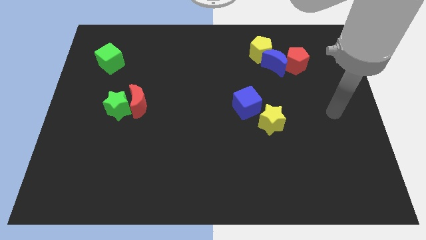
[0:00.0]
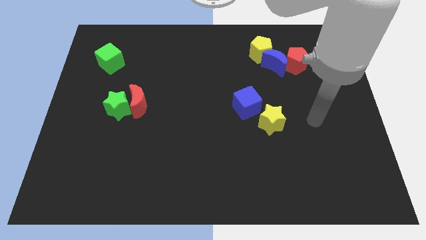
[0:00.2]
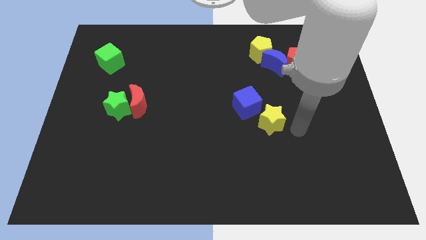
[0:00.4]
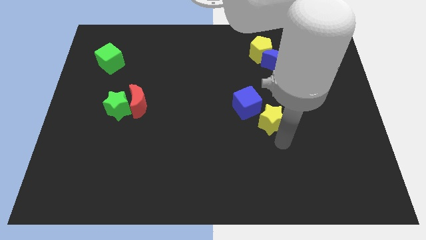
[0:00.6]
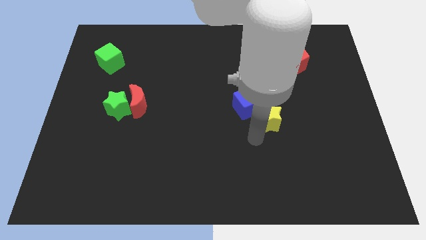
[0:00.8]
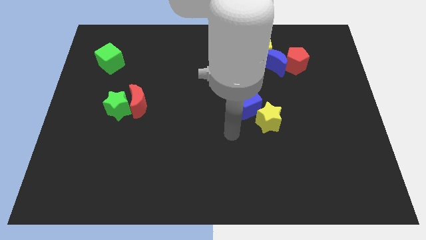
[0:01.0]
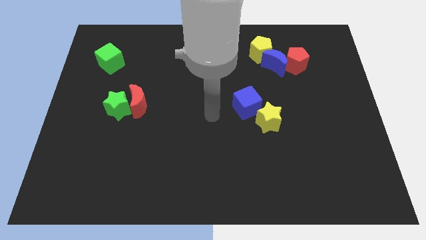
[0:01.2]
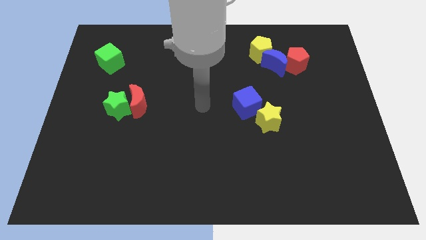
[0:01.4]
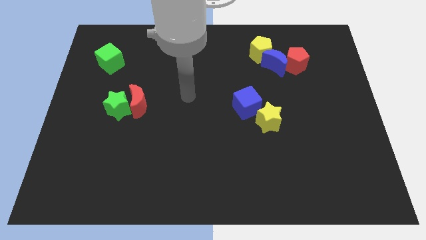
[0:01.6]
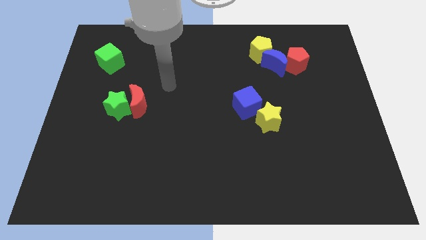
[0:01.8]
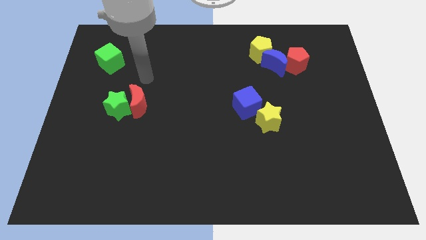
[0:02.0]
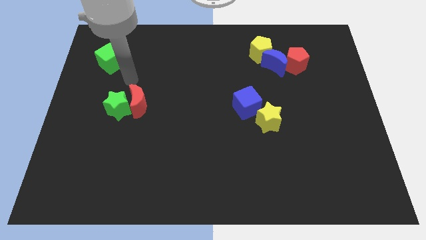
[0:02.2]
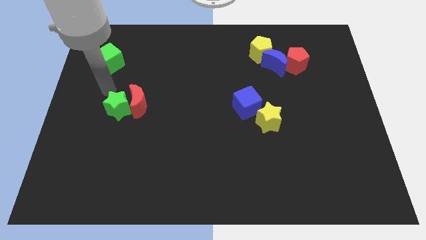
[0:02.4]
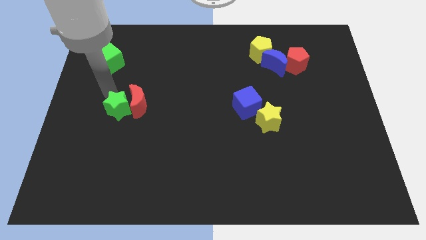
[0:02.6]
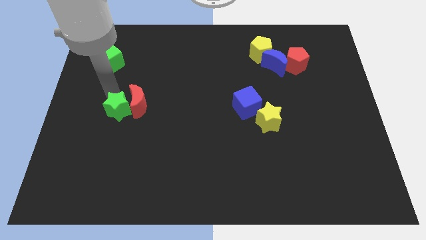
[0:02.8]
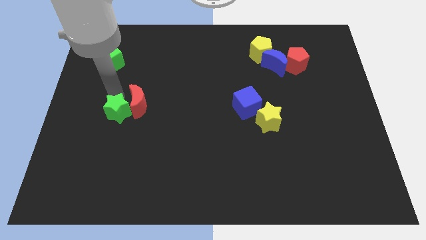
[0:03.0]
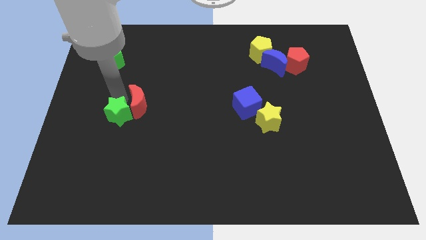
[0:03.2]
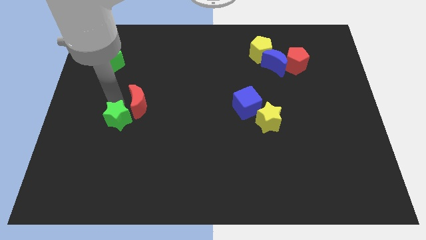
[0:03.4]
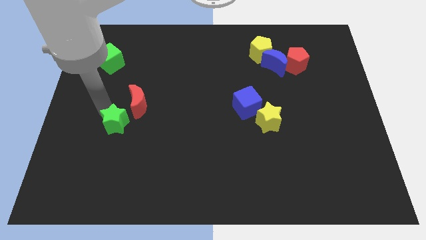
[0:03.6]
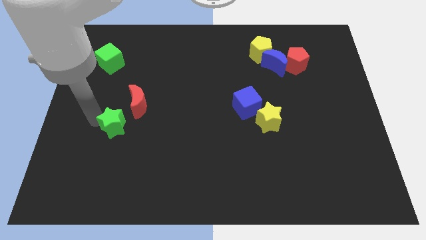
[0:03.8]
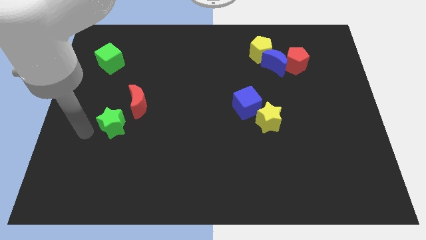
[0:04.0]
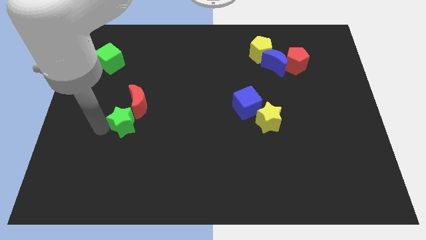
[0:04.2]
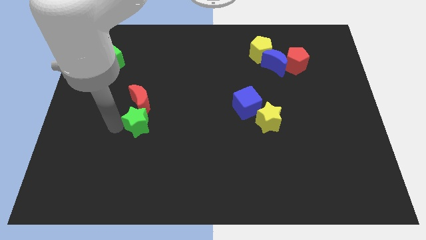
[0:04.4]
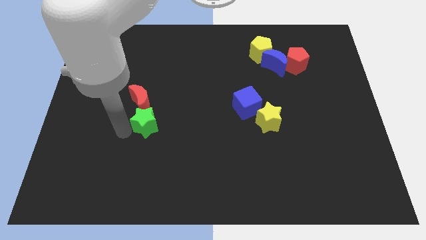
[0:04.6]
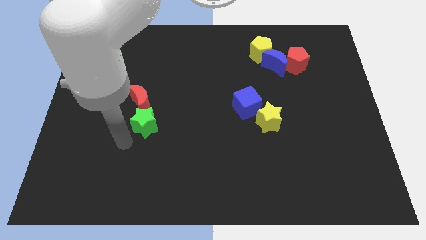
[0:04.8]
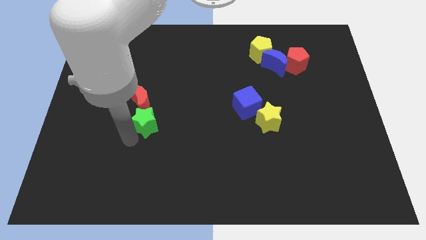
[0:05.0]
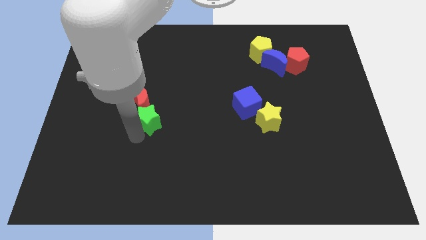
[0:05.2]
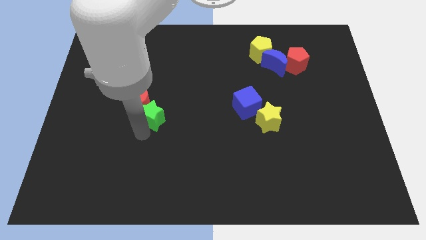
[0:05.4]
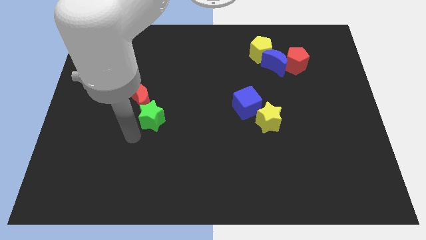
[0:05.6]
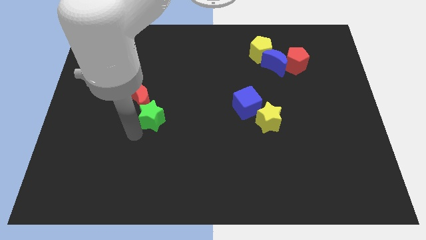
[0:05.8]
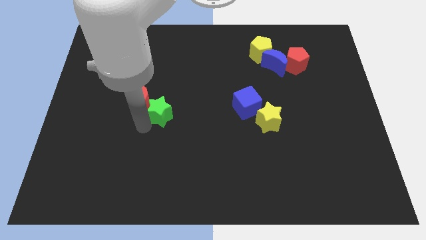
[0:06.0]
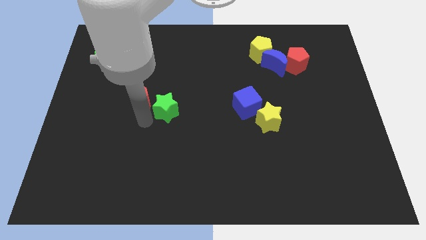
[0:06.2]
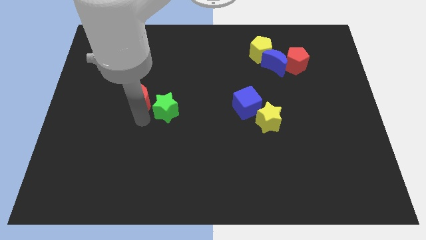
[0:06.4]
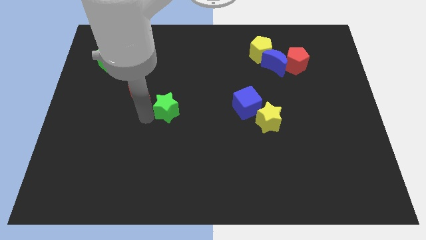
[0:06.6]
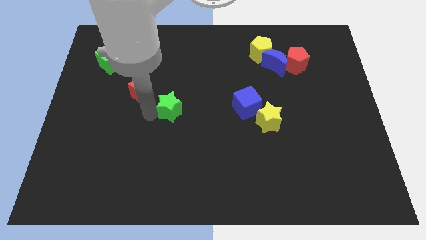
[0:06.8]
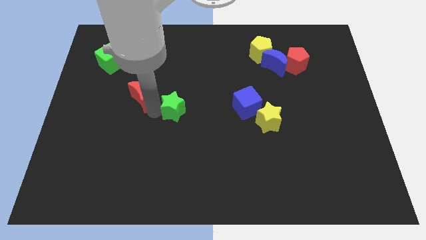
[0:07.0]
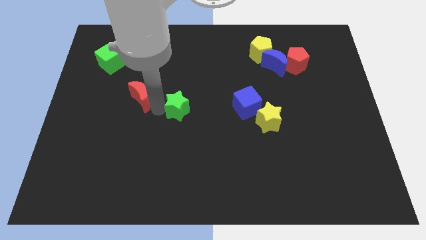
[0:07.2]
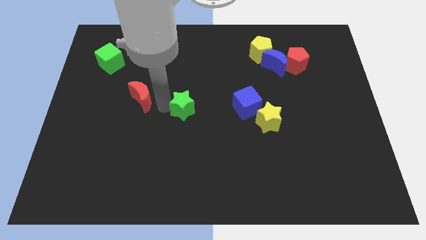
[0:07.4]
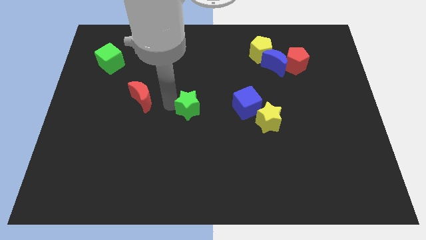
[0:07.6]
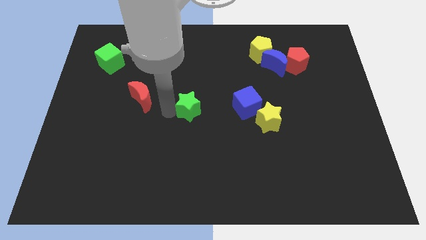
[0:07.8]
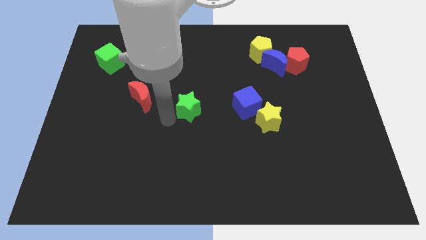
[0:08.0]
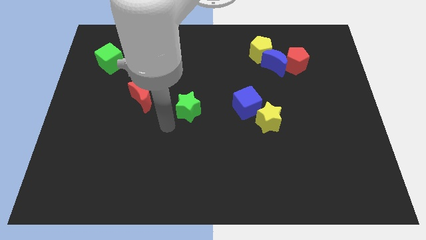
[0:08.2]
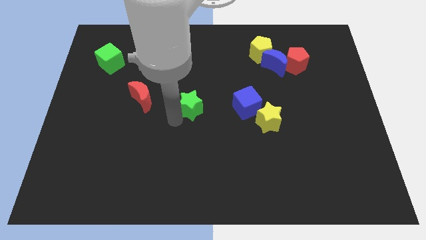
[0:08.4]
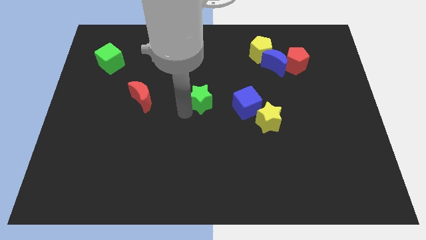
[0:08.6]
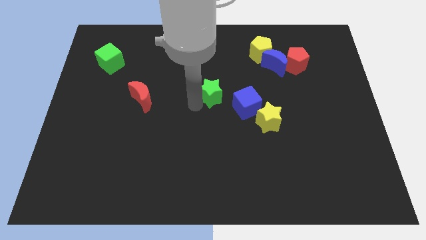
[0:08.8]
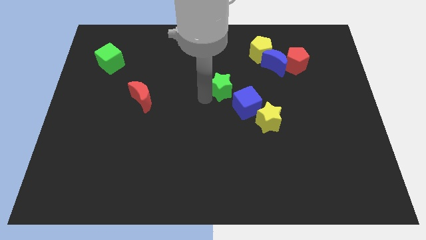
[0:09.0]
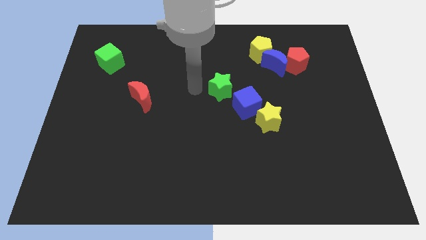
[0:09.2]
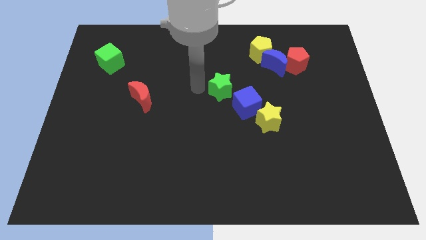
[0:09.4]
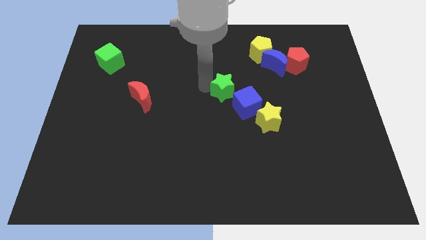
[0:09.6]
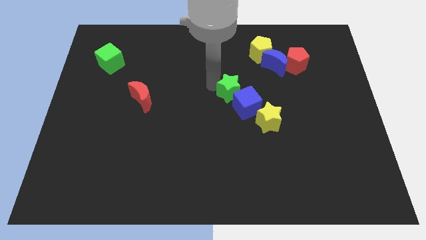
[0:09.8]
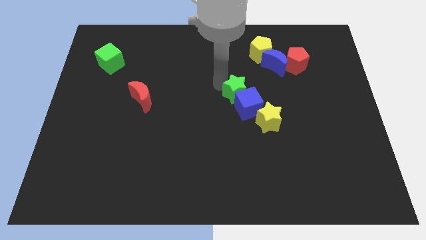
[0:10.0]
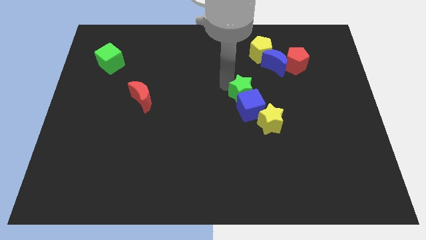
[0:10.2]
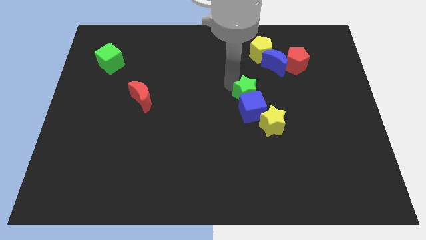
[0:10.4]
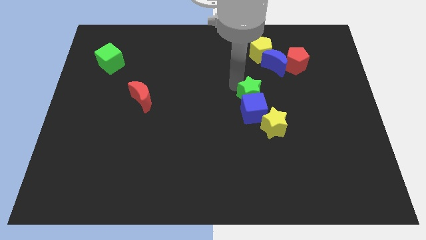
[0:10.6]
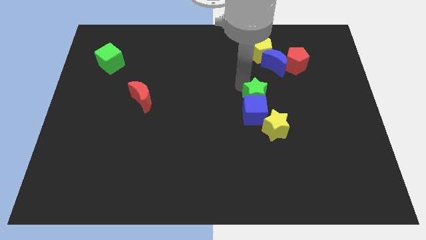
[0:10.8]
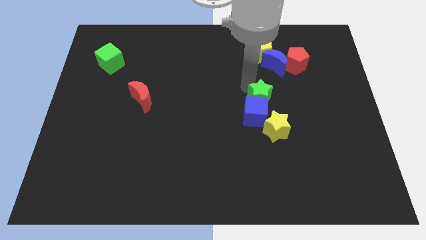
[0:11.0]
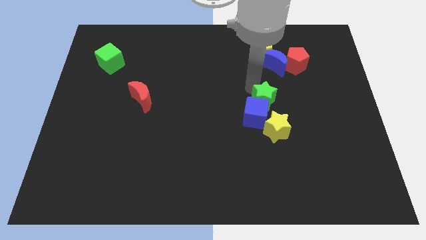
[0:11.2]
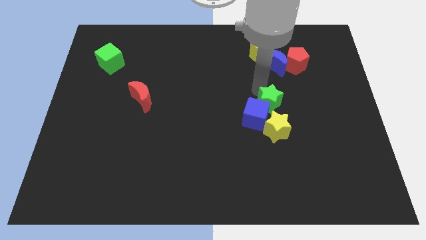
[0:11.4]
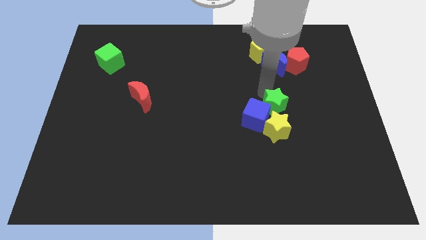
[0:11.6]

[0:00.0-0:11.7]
push the green star diagonally up and to the right of the yellow star

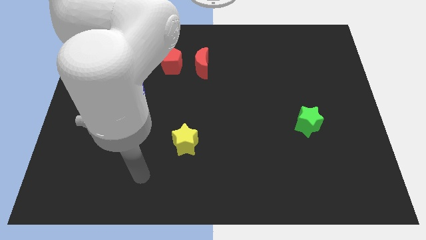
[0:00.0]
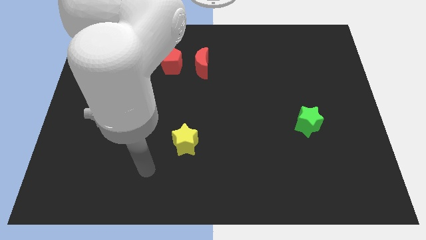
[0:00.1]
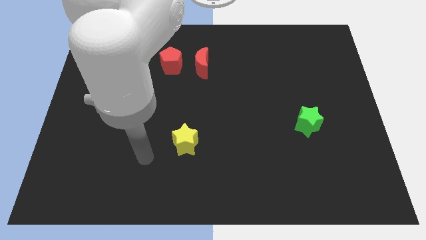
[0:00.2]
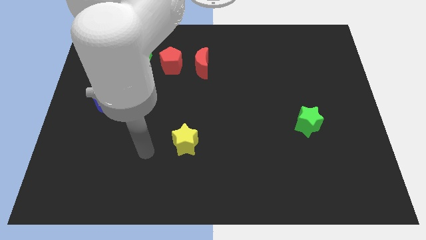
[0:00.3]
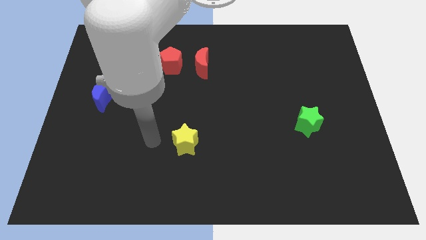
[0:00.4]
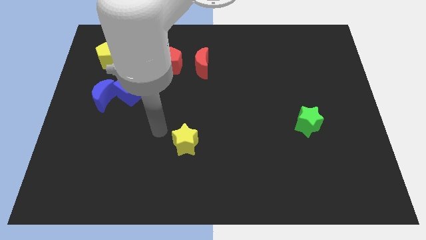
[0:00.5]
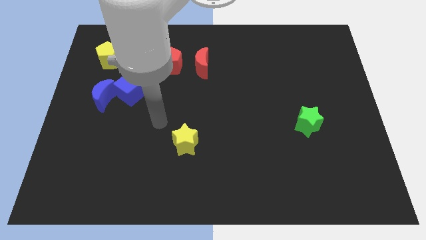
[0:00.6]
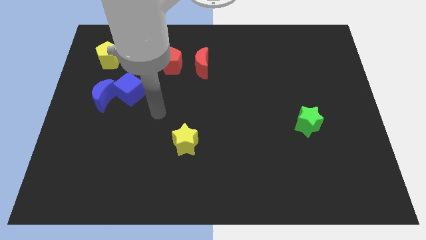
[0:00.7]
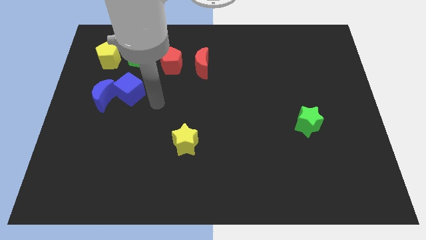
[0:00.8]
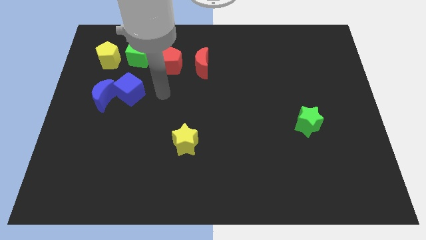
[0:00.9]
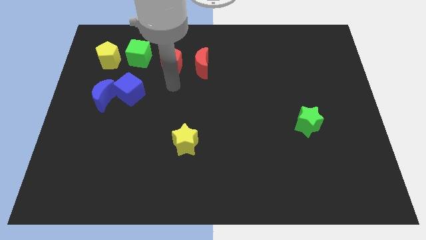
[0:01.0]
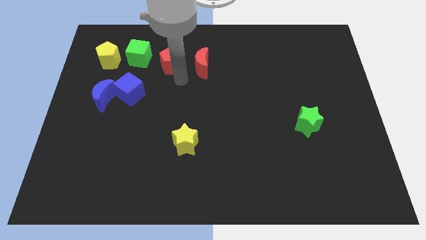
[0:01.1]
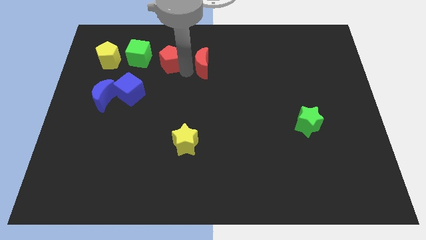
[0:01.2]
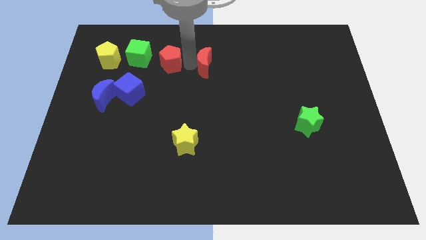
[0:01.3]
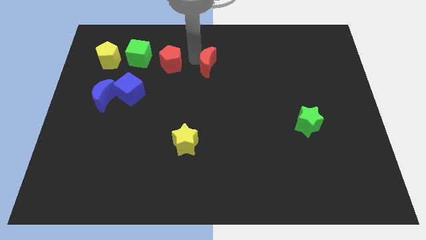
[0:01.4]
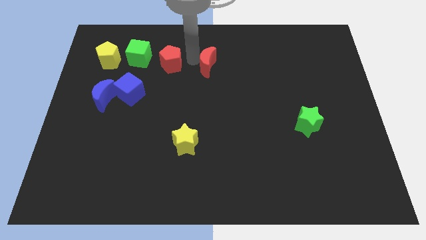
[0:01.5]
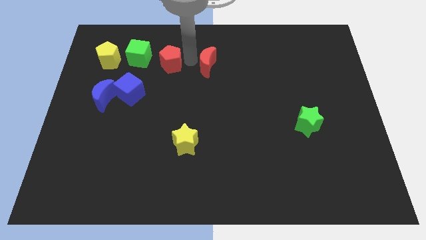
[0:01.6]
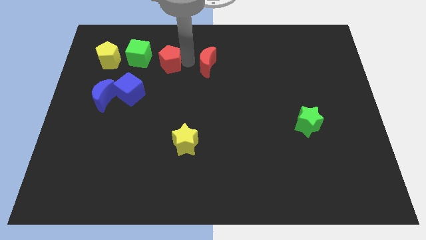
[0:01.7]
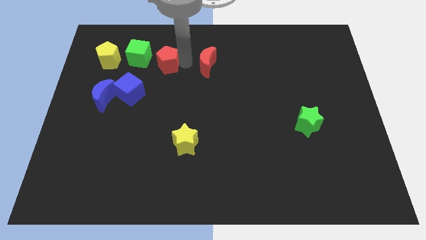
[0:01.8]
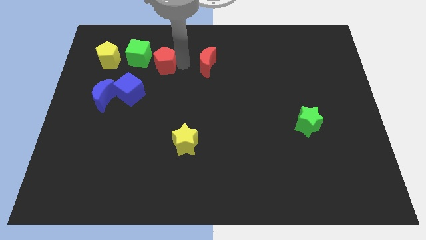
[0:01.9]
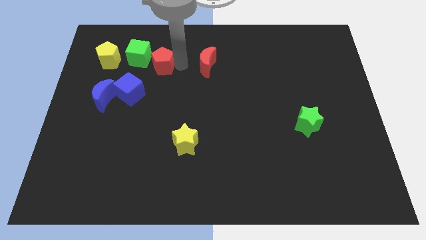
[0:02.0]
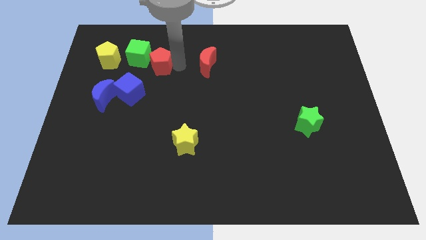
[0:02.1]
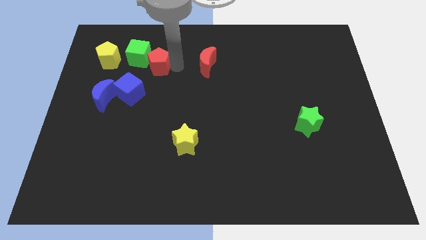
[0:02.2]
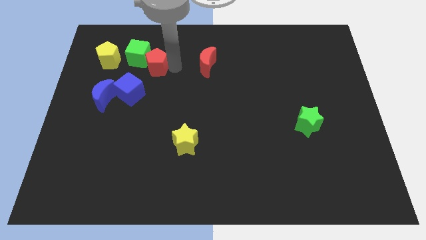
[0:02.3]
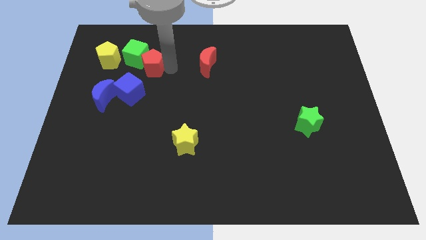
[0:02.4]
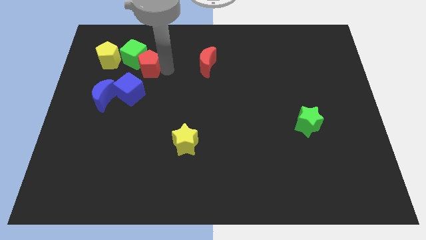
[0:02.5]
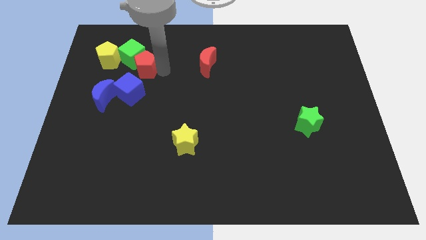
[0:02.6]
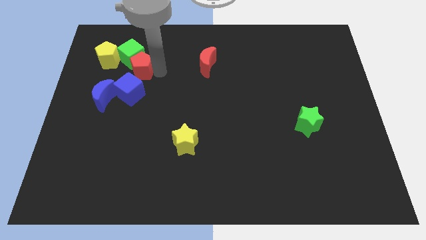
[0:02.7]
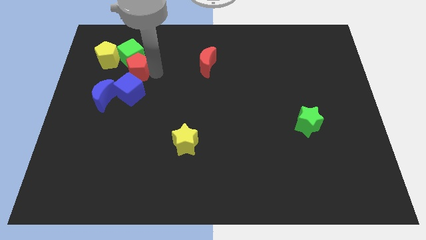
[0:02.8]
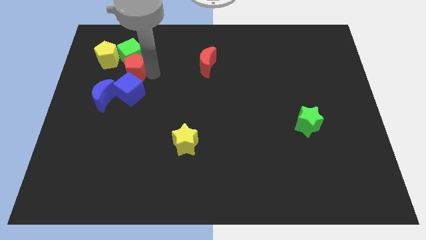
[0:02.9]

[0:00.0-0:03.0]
push the red pentagon to the bottom left of the green cube
